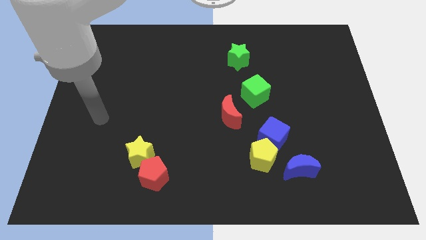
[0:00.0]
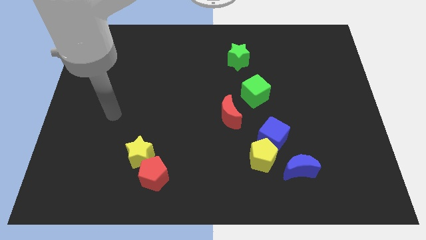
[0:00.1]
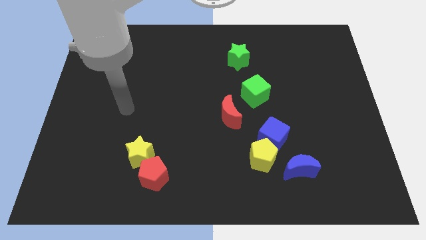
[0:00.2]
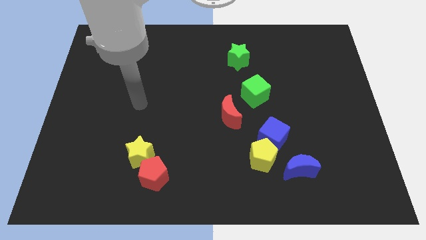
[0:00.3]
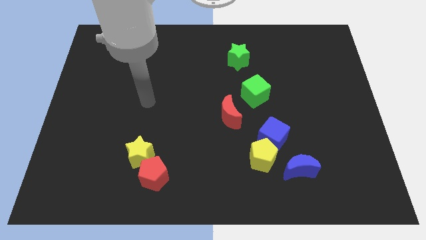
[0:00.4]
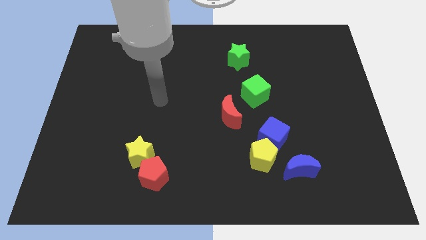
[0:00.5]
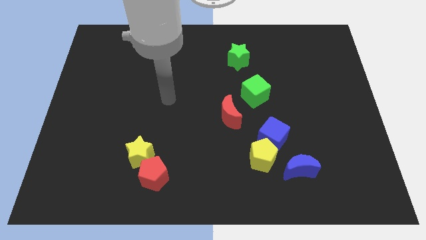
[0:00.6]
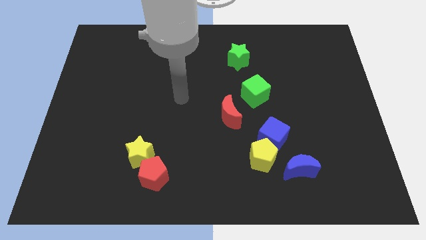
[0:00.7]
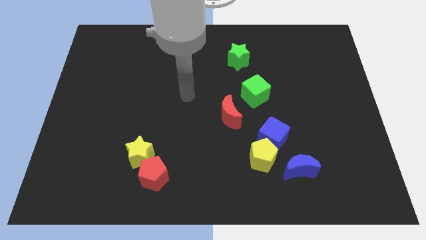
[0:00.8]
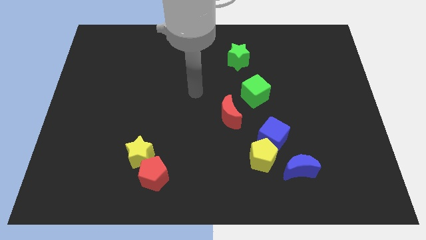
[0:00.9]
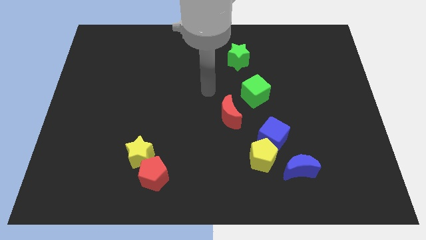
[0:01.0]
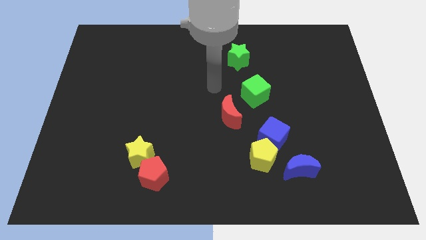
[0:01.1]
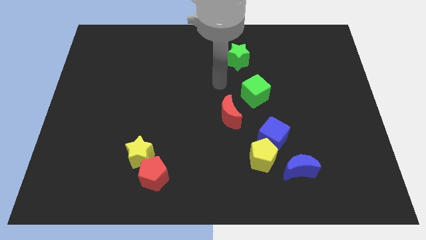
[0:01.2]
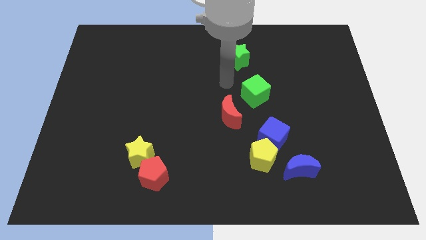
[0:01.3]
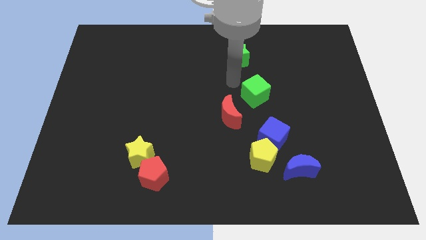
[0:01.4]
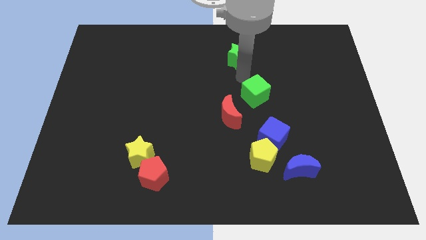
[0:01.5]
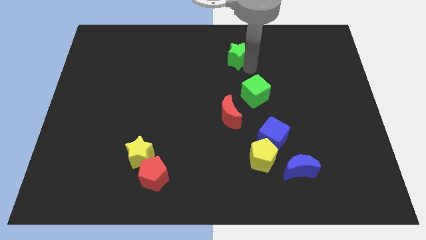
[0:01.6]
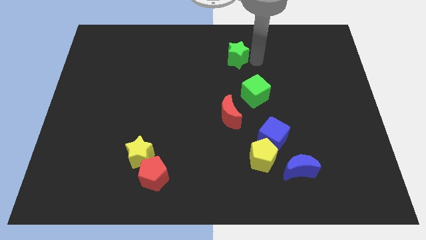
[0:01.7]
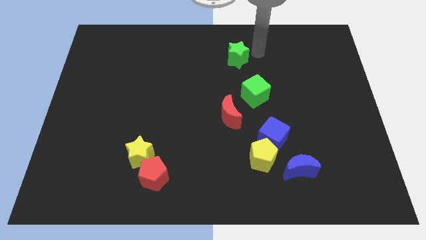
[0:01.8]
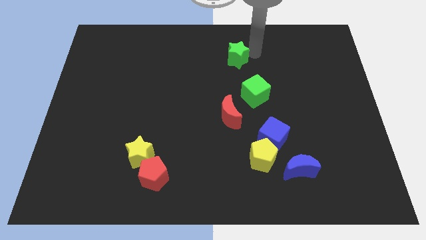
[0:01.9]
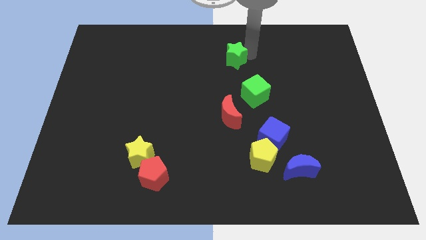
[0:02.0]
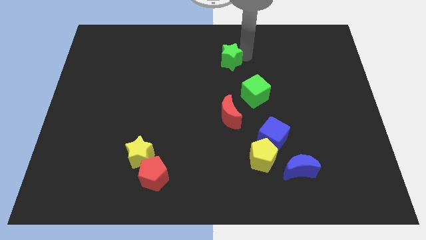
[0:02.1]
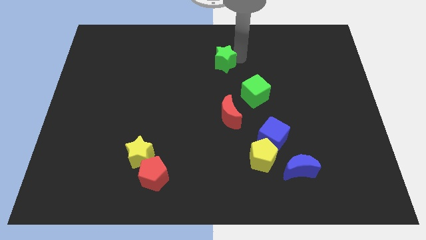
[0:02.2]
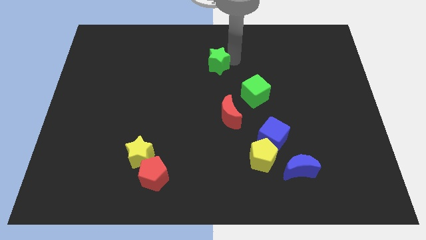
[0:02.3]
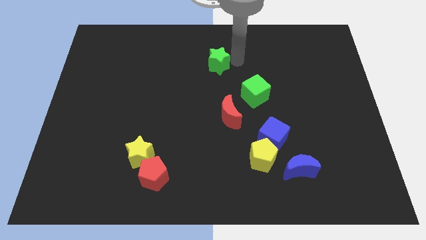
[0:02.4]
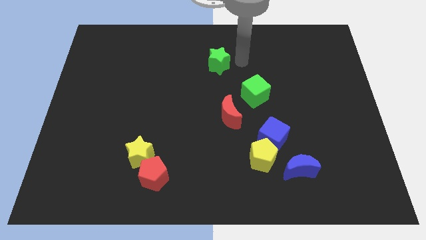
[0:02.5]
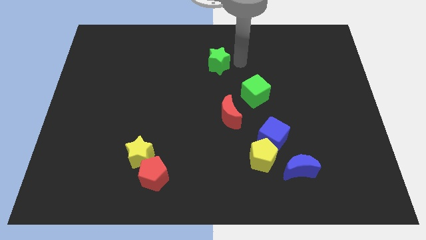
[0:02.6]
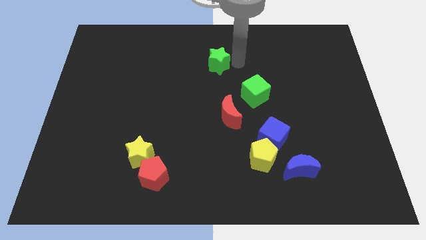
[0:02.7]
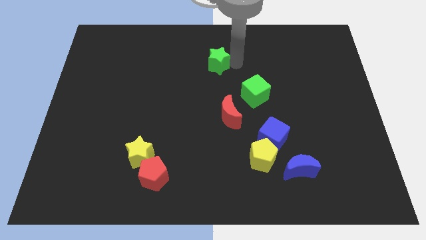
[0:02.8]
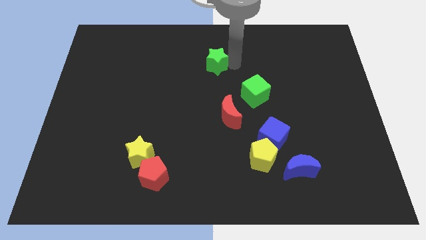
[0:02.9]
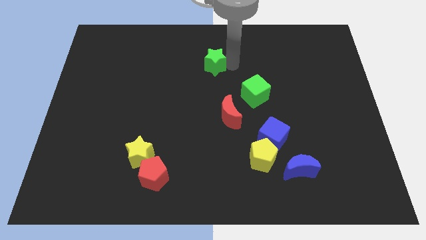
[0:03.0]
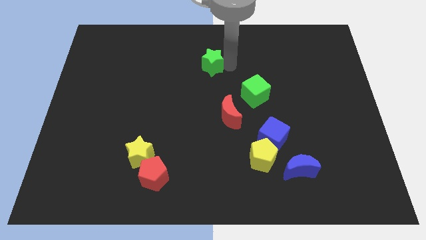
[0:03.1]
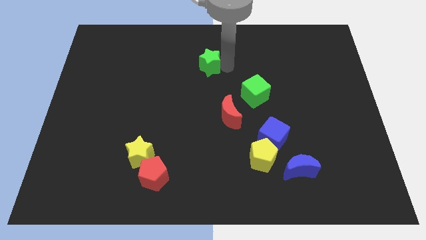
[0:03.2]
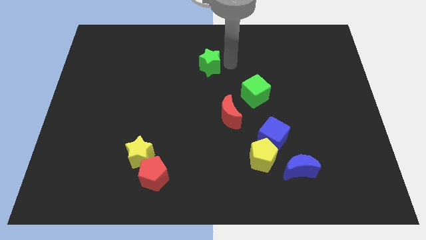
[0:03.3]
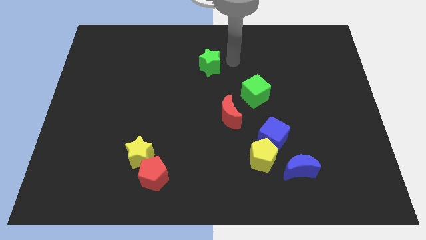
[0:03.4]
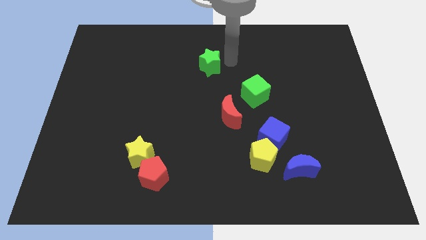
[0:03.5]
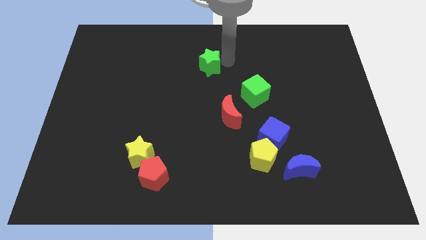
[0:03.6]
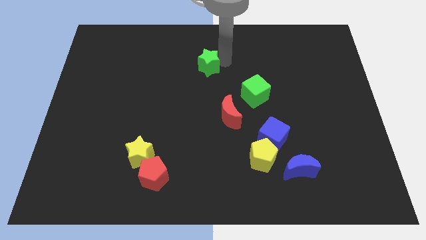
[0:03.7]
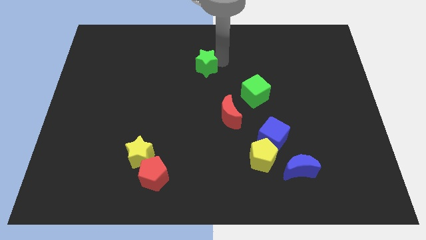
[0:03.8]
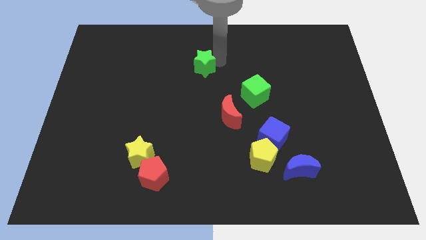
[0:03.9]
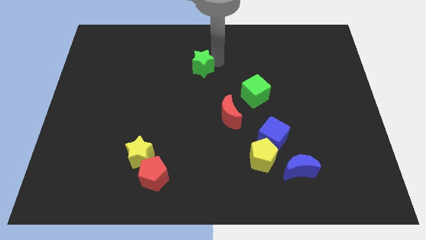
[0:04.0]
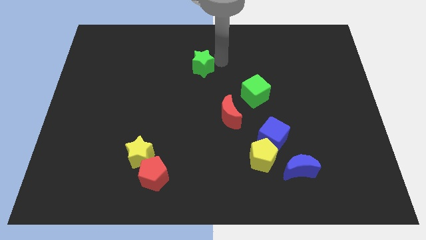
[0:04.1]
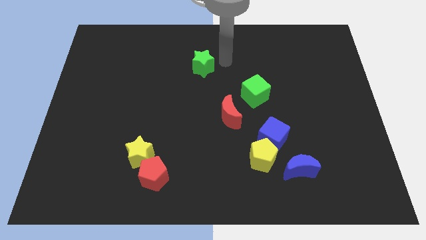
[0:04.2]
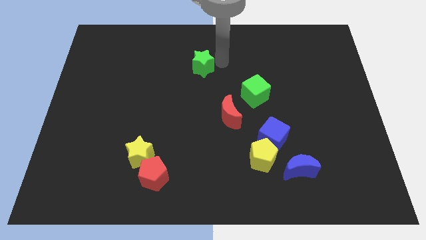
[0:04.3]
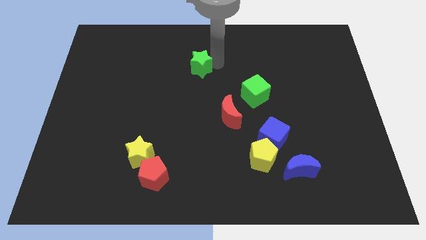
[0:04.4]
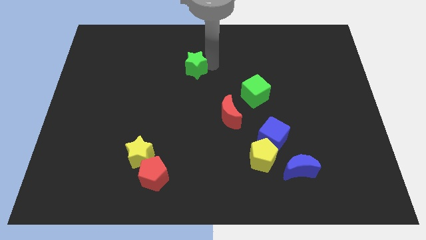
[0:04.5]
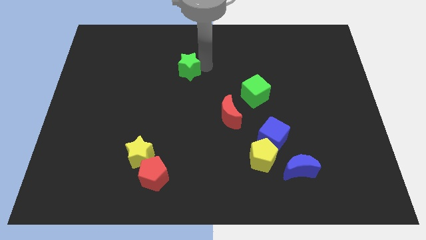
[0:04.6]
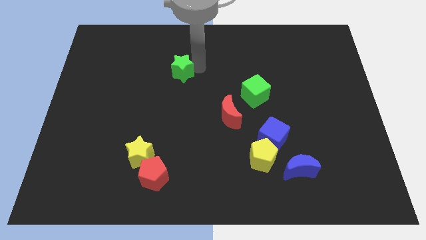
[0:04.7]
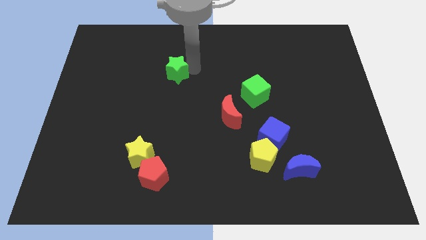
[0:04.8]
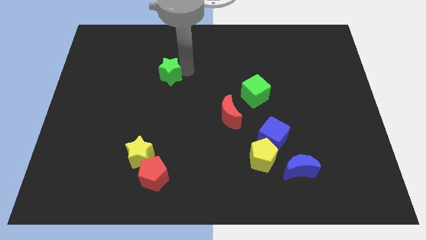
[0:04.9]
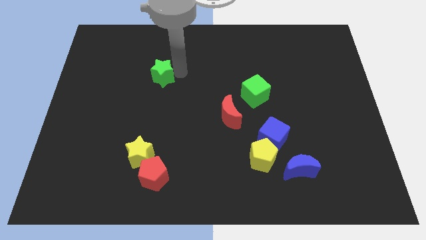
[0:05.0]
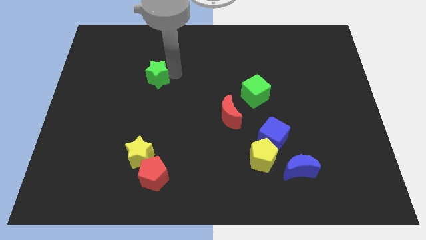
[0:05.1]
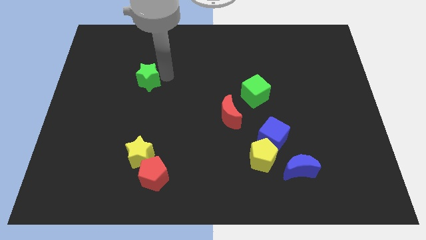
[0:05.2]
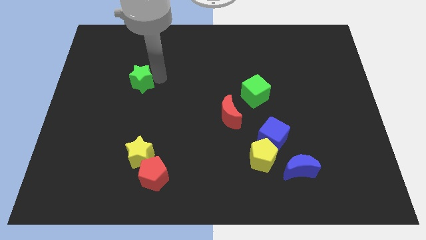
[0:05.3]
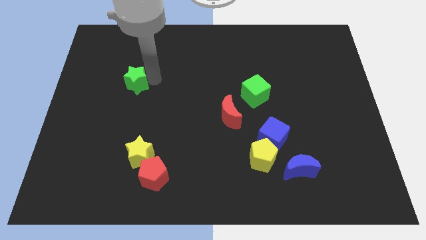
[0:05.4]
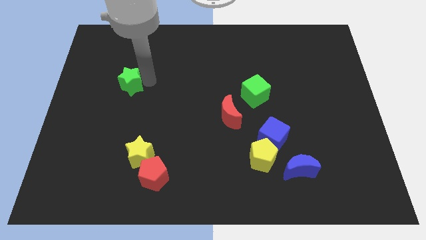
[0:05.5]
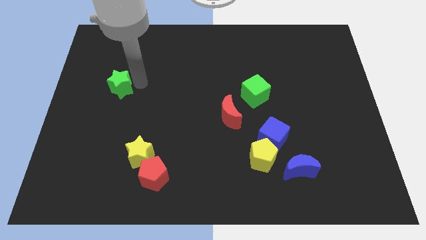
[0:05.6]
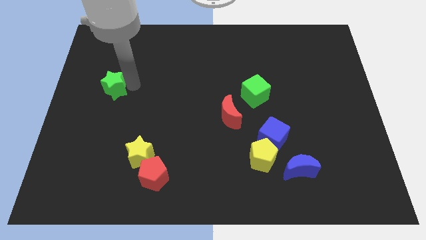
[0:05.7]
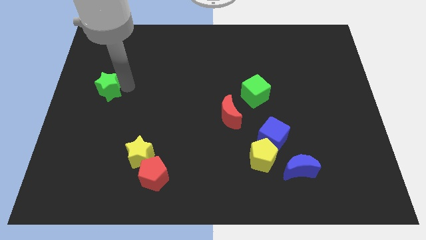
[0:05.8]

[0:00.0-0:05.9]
slide the green star to the center left

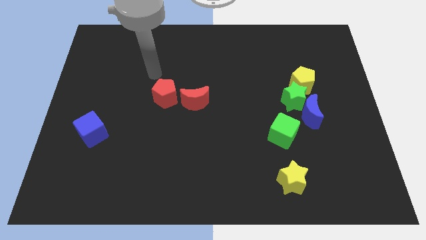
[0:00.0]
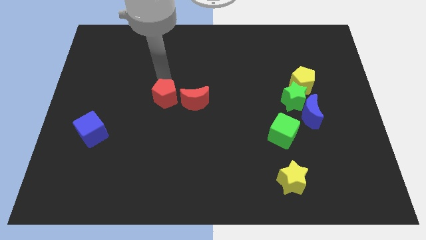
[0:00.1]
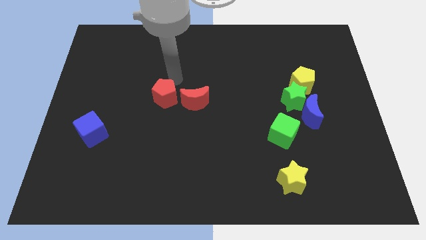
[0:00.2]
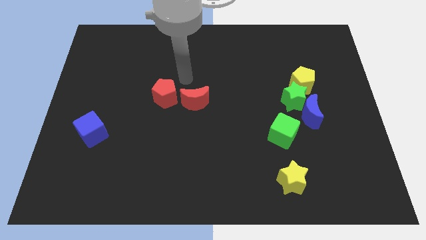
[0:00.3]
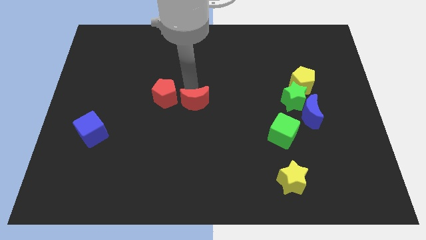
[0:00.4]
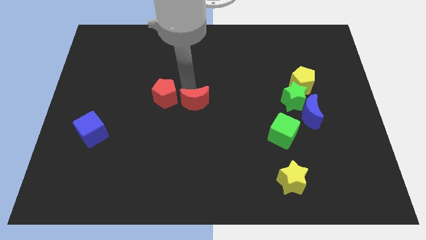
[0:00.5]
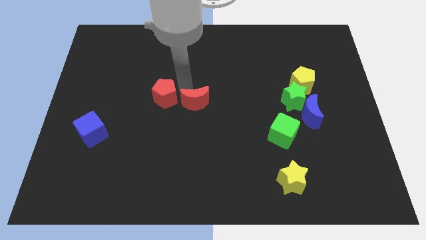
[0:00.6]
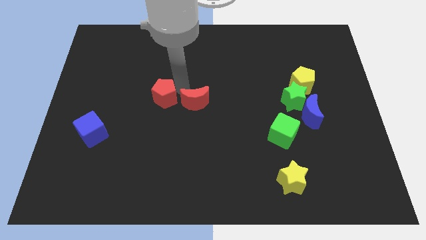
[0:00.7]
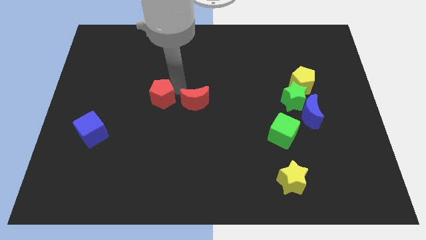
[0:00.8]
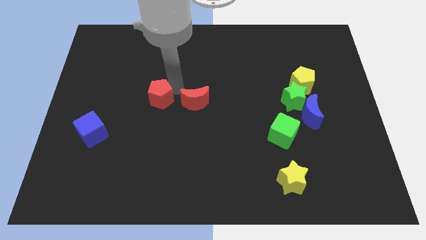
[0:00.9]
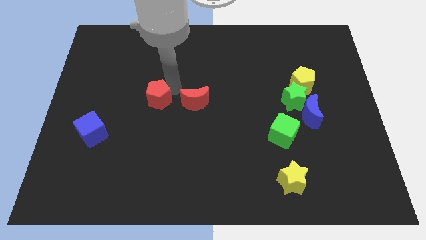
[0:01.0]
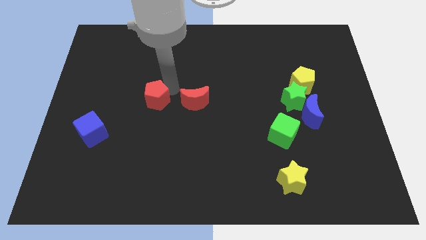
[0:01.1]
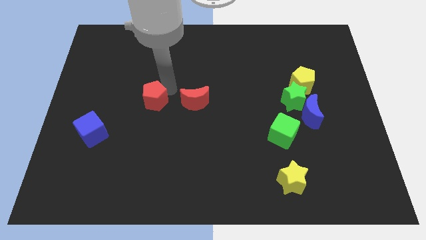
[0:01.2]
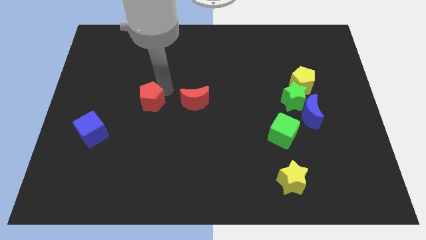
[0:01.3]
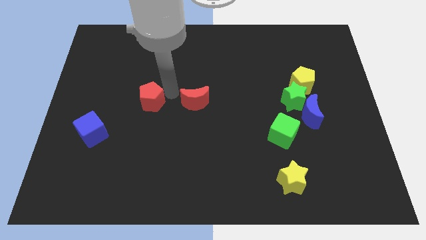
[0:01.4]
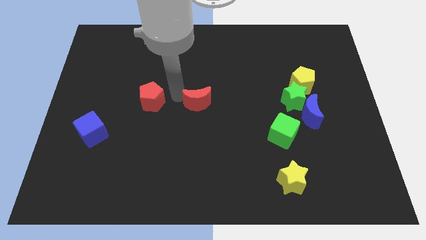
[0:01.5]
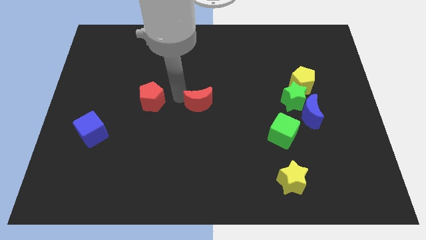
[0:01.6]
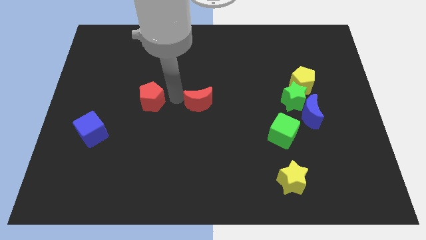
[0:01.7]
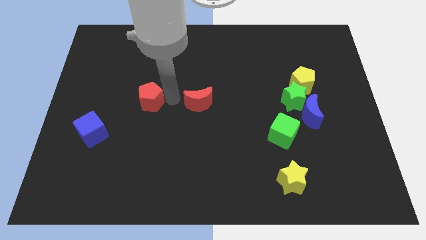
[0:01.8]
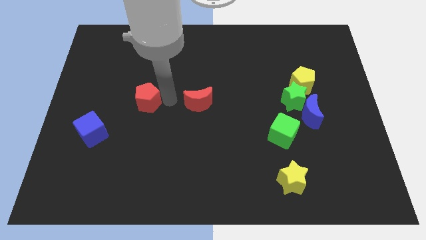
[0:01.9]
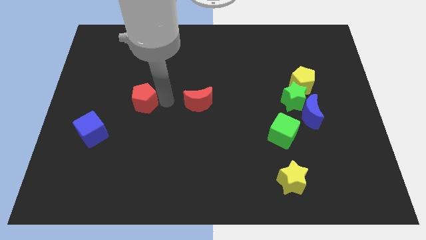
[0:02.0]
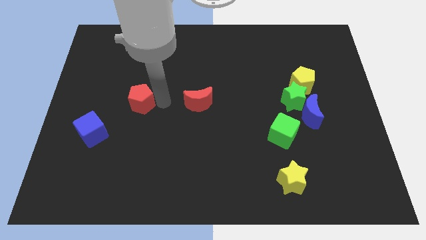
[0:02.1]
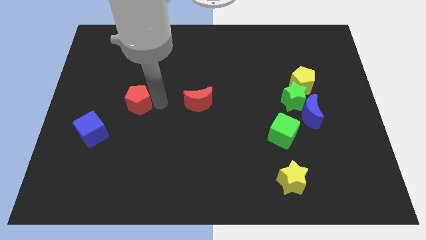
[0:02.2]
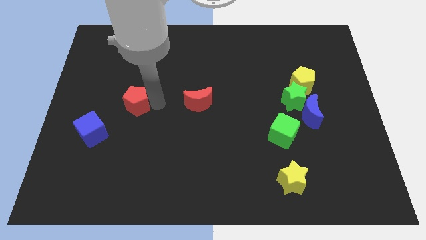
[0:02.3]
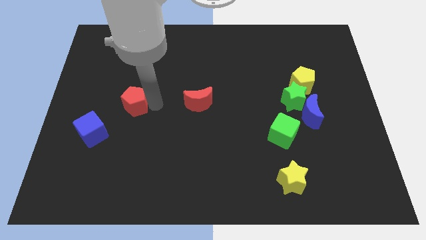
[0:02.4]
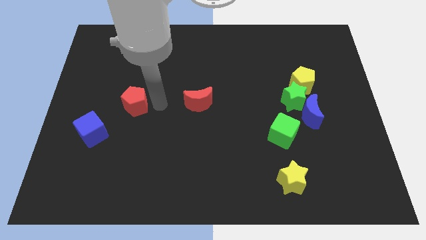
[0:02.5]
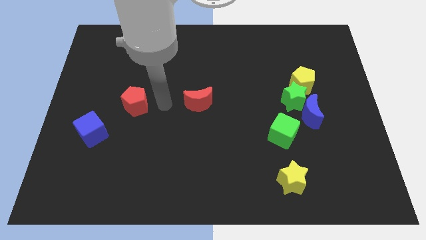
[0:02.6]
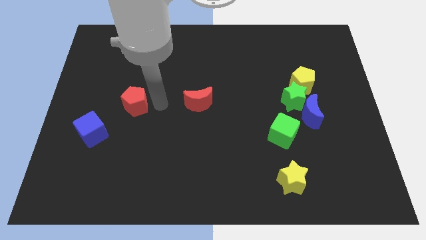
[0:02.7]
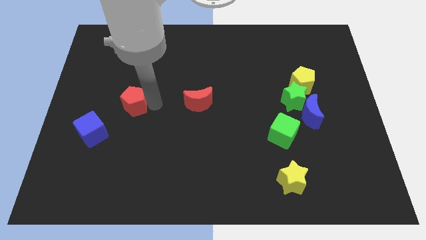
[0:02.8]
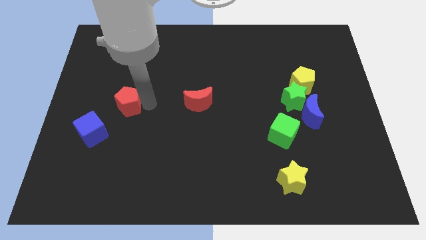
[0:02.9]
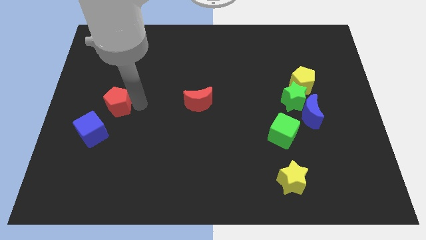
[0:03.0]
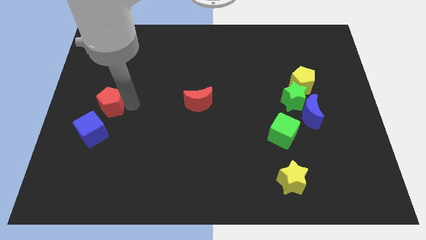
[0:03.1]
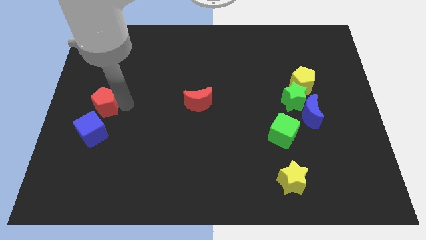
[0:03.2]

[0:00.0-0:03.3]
push the red pentagon to the left side of the board
